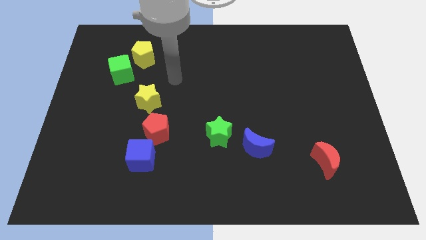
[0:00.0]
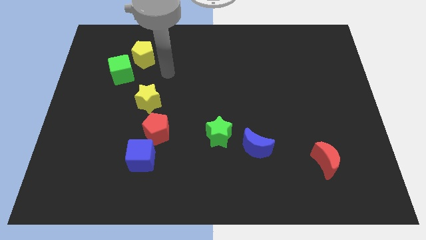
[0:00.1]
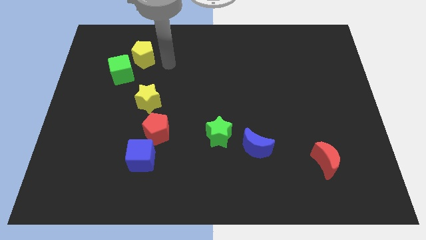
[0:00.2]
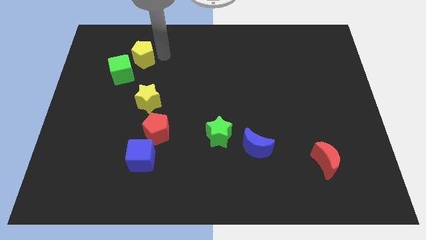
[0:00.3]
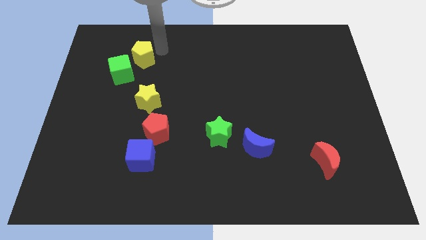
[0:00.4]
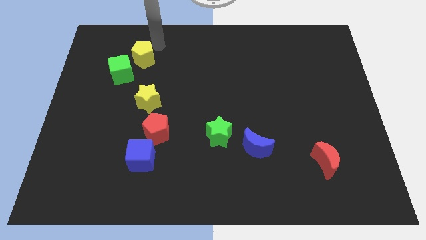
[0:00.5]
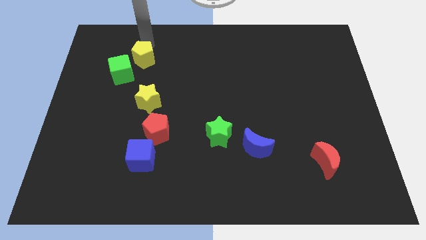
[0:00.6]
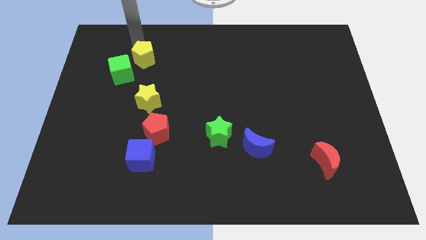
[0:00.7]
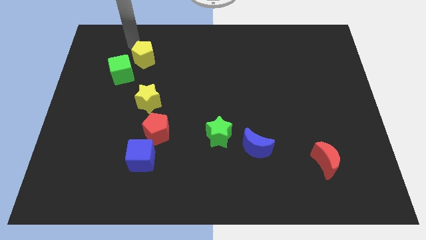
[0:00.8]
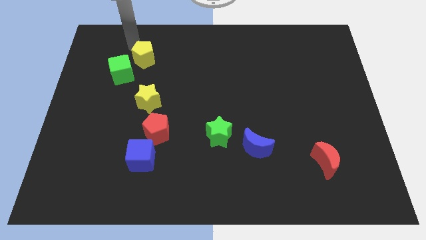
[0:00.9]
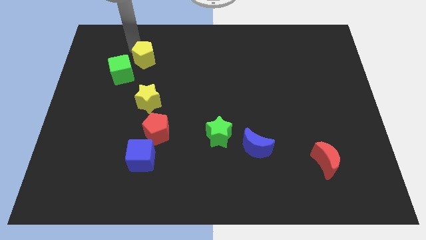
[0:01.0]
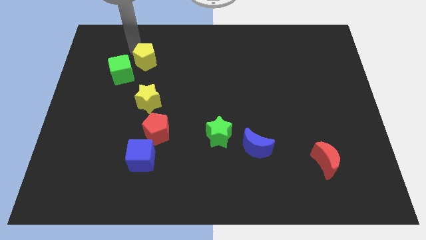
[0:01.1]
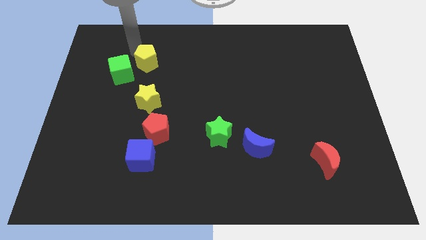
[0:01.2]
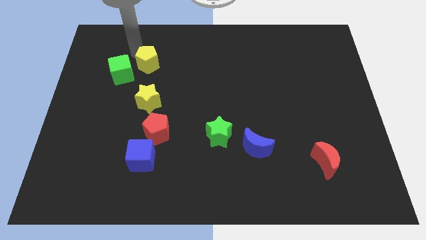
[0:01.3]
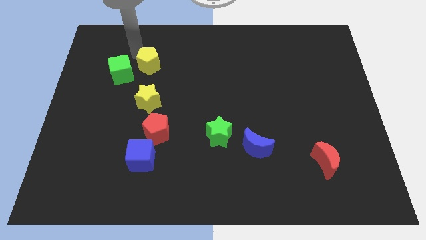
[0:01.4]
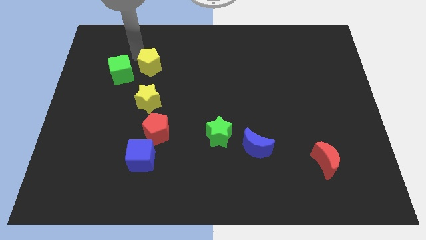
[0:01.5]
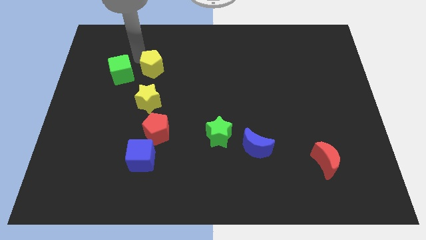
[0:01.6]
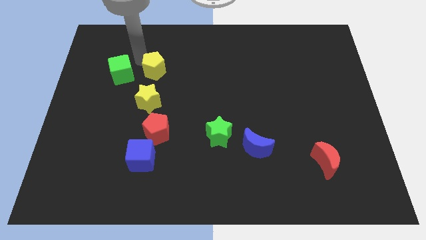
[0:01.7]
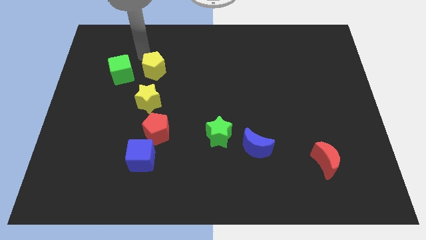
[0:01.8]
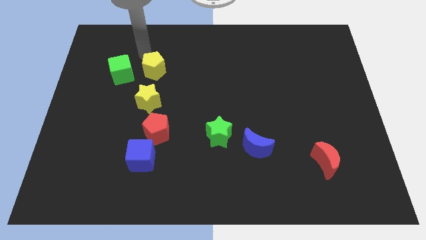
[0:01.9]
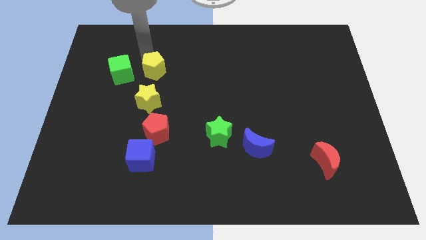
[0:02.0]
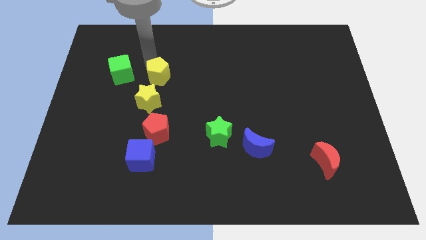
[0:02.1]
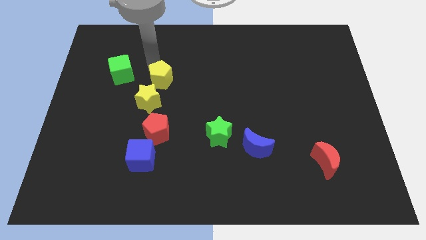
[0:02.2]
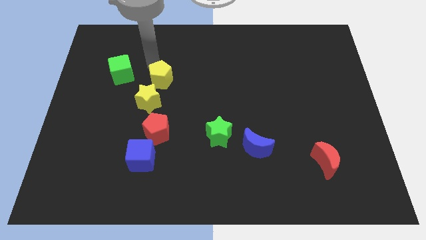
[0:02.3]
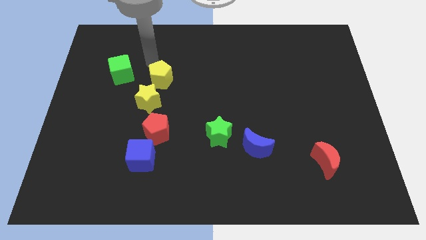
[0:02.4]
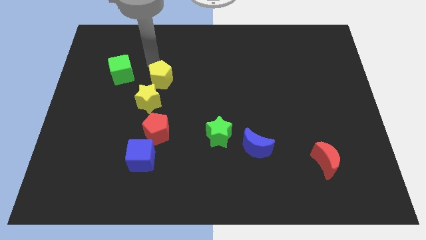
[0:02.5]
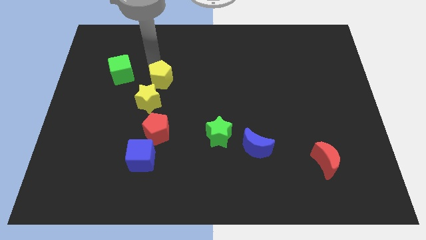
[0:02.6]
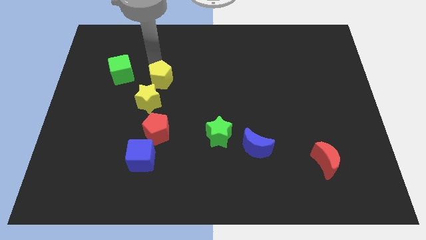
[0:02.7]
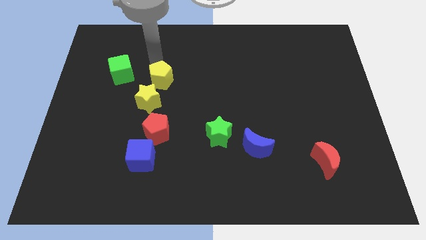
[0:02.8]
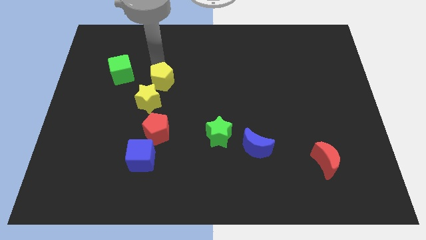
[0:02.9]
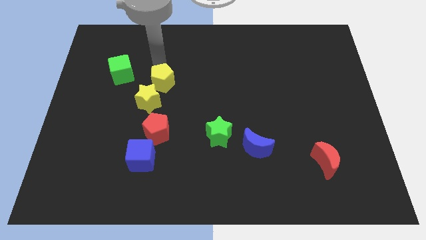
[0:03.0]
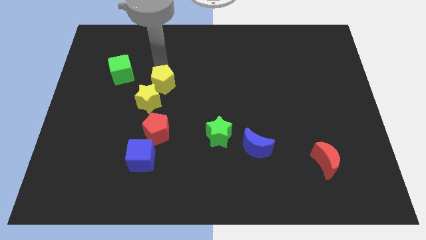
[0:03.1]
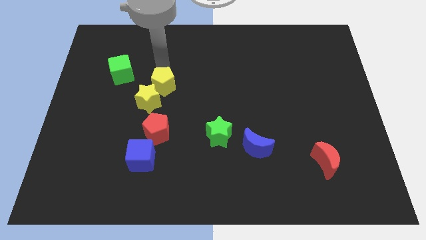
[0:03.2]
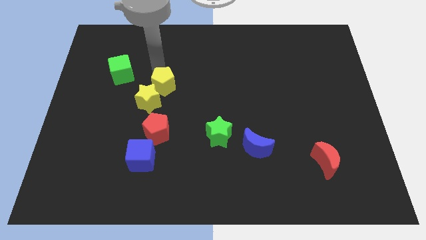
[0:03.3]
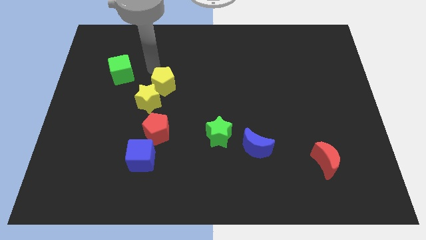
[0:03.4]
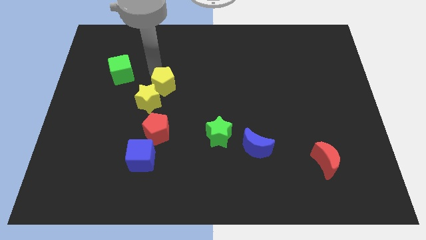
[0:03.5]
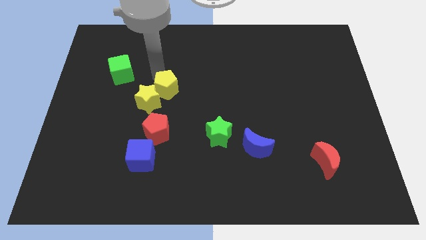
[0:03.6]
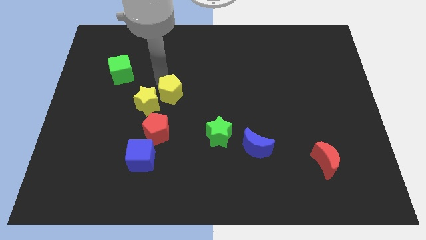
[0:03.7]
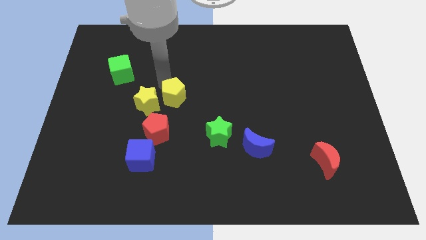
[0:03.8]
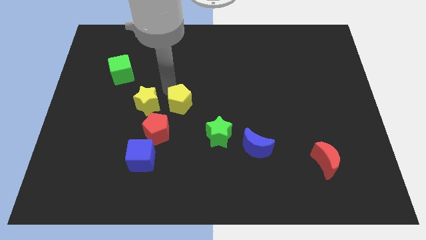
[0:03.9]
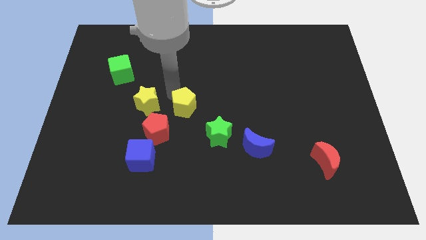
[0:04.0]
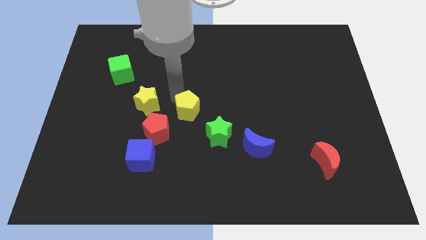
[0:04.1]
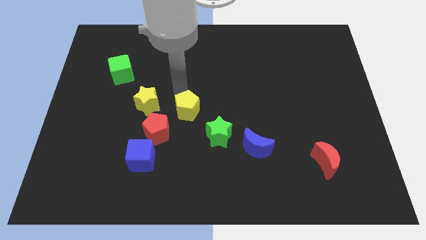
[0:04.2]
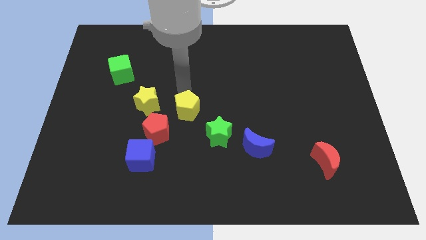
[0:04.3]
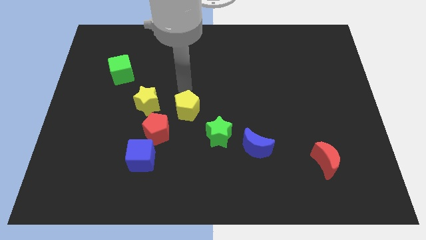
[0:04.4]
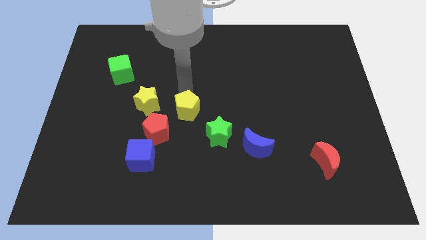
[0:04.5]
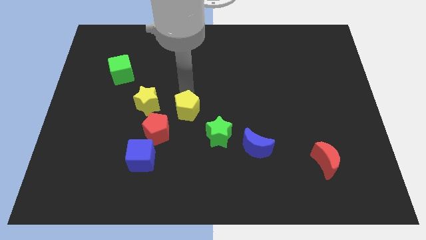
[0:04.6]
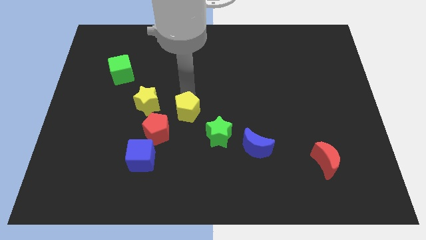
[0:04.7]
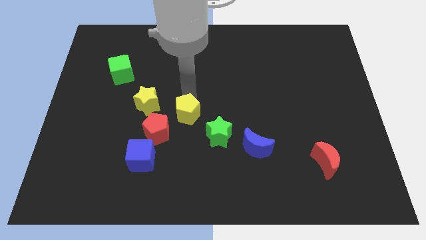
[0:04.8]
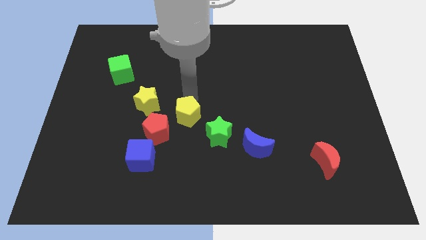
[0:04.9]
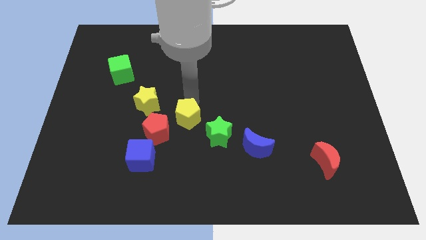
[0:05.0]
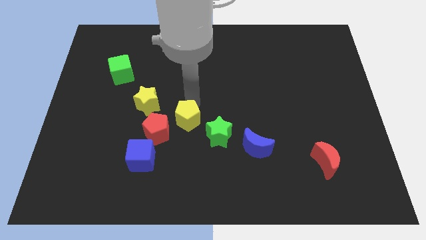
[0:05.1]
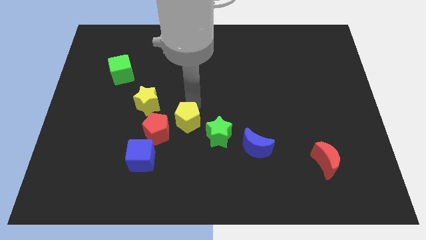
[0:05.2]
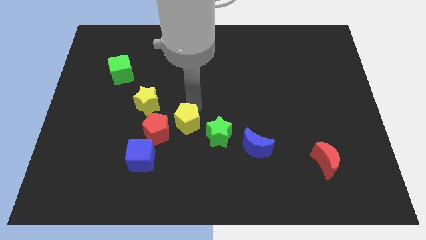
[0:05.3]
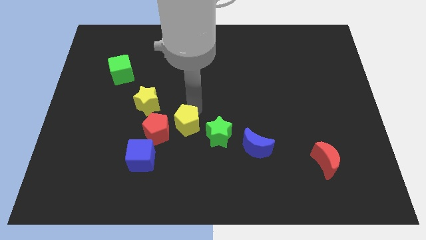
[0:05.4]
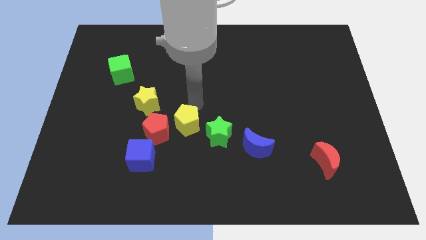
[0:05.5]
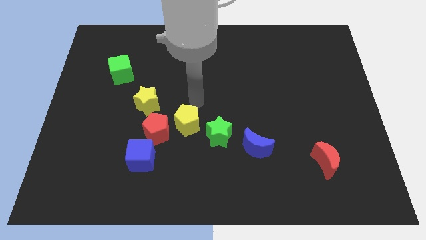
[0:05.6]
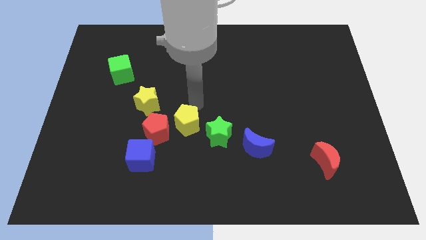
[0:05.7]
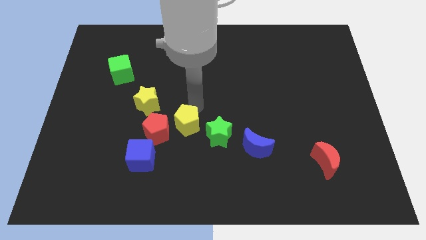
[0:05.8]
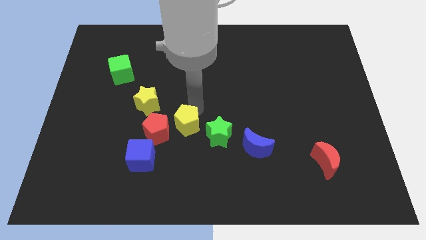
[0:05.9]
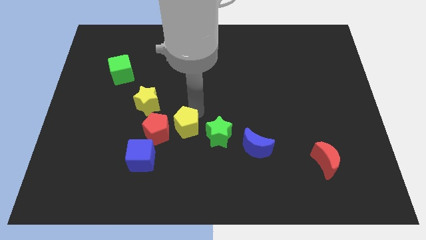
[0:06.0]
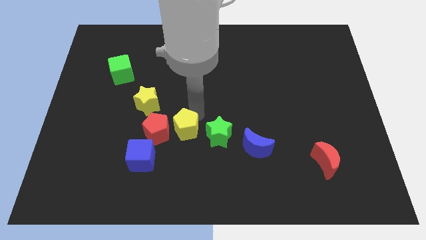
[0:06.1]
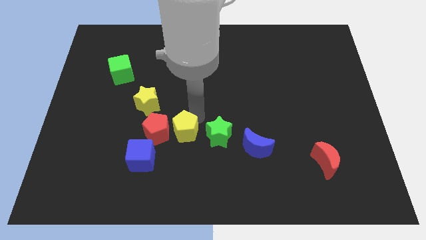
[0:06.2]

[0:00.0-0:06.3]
move the yellow pentagon to the bottom right of the red pentagon

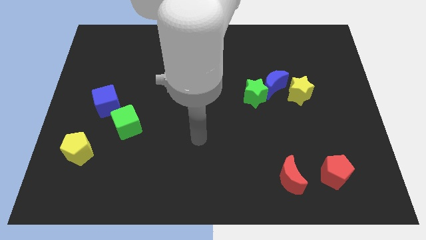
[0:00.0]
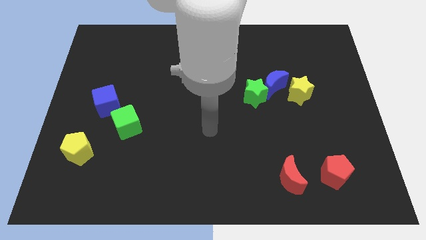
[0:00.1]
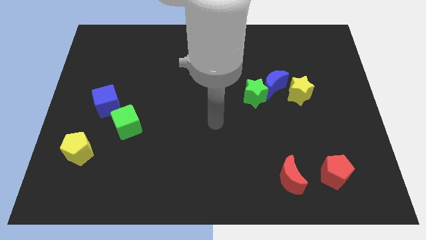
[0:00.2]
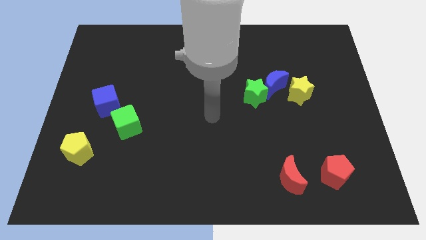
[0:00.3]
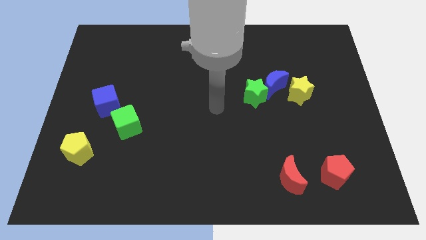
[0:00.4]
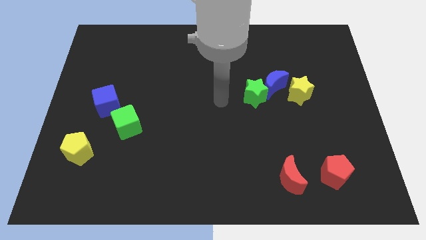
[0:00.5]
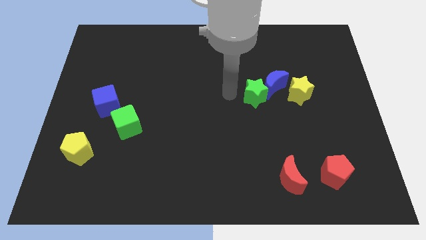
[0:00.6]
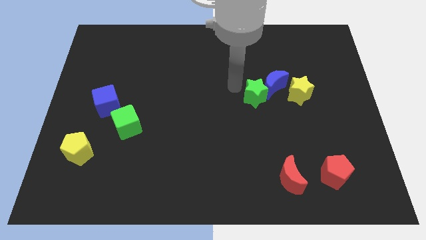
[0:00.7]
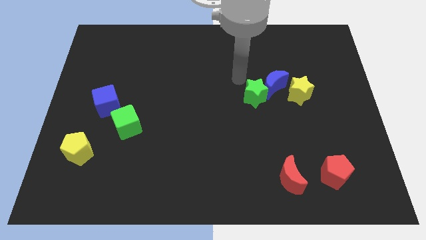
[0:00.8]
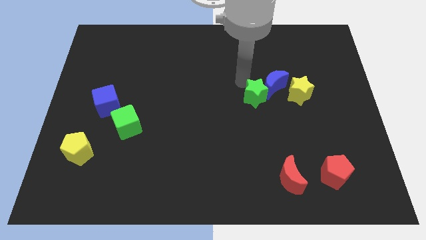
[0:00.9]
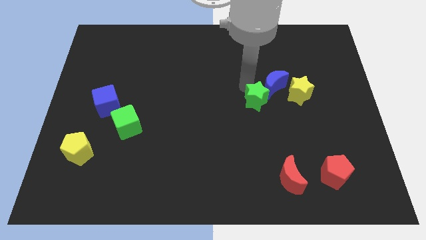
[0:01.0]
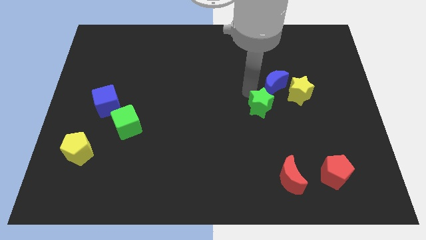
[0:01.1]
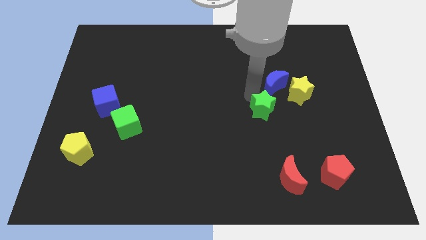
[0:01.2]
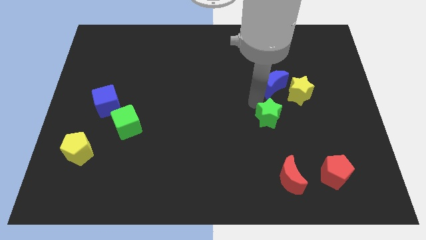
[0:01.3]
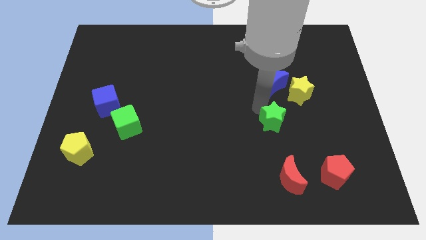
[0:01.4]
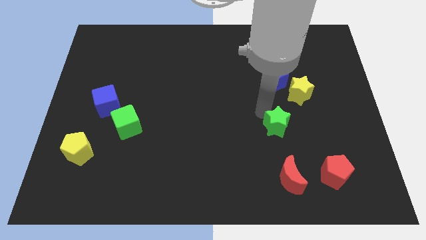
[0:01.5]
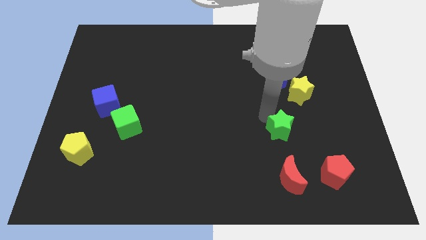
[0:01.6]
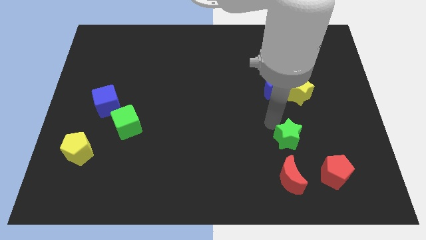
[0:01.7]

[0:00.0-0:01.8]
move the green star diagonally up and to the left of the red pentagon

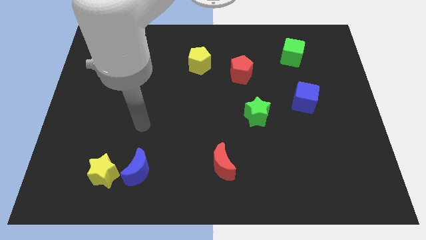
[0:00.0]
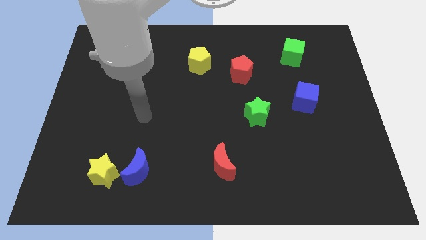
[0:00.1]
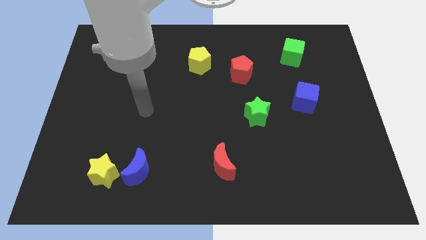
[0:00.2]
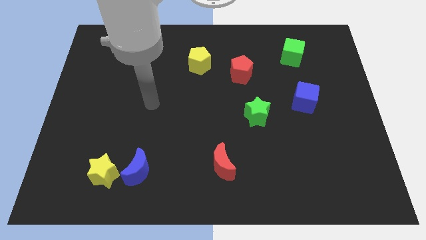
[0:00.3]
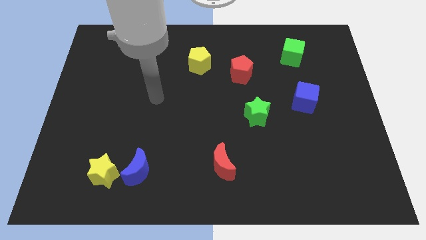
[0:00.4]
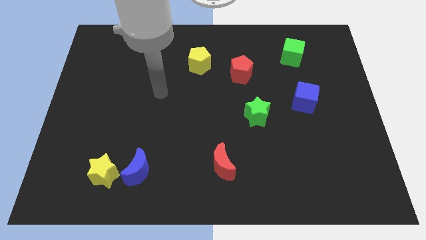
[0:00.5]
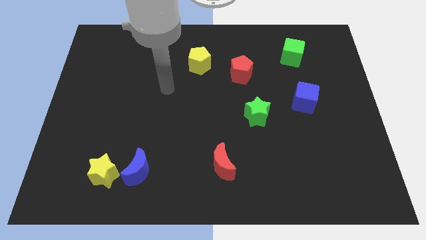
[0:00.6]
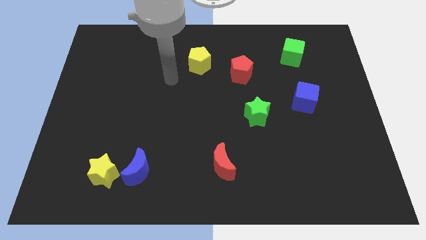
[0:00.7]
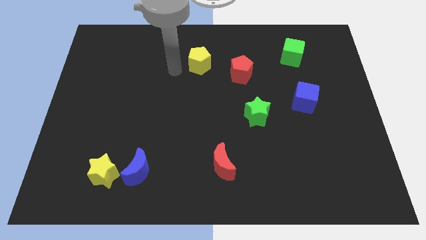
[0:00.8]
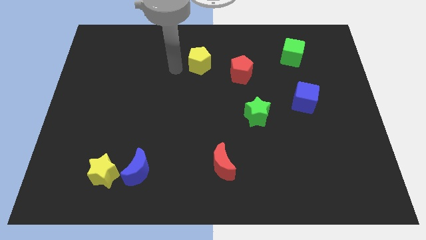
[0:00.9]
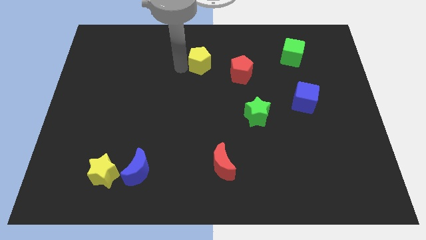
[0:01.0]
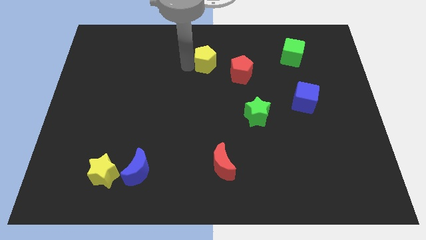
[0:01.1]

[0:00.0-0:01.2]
slide the yellow pentagon to the top left of the red pentagon
